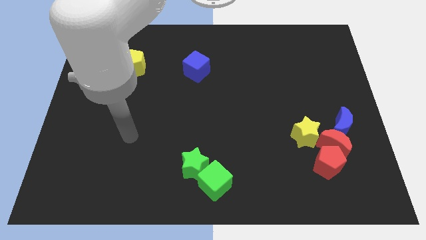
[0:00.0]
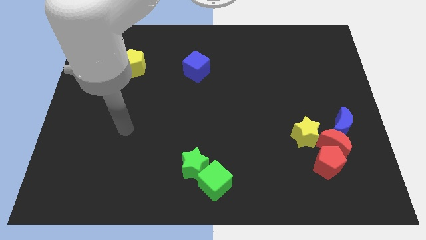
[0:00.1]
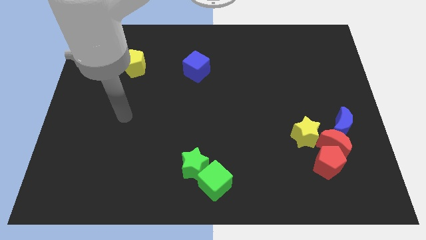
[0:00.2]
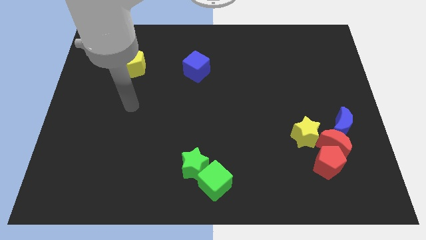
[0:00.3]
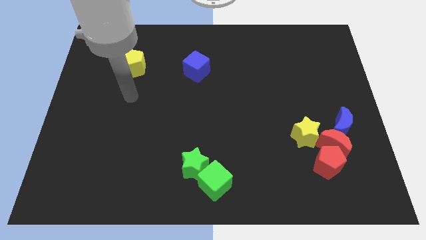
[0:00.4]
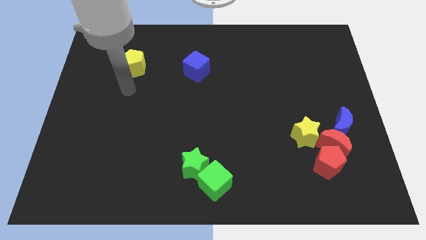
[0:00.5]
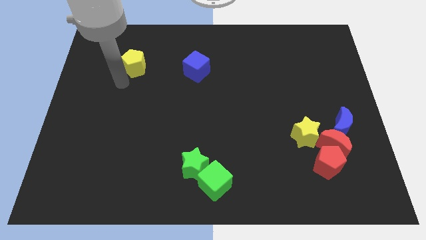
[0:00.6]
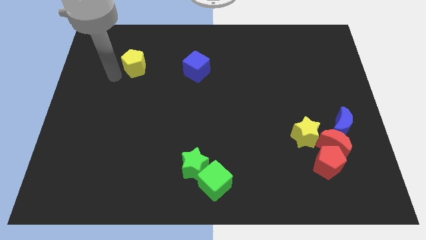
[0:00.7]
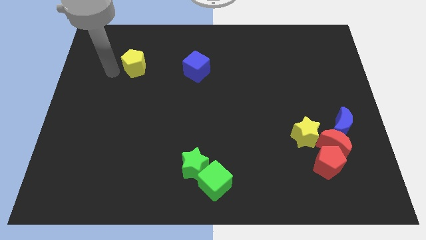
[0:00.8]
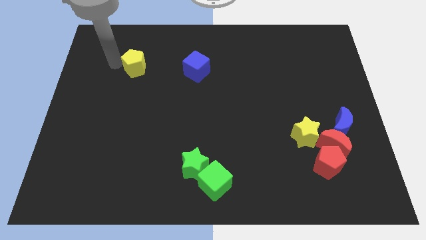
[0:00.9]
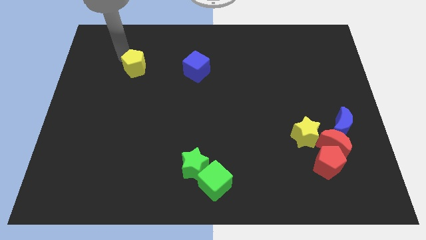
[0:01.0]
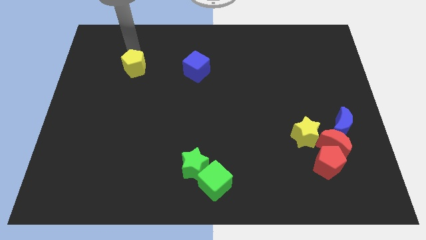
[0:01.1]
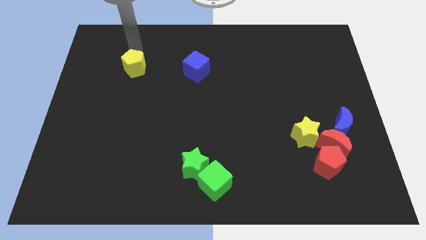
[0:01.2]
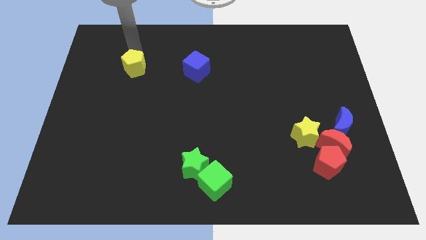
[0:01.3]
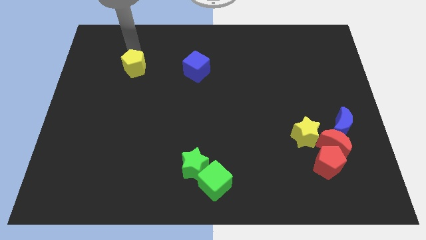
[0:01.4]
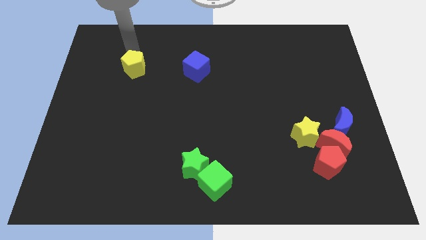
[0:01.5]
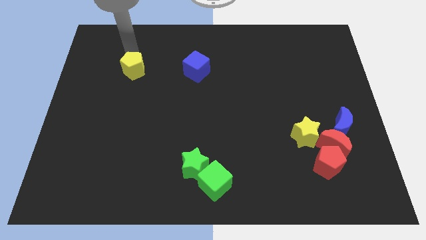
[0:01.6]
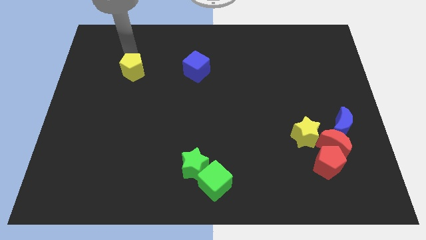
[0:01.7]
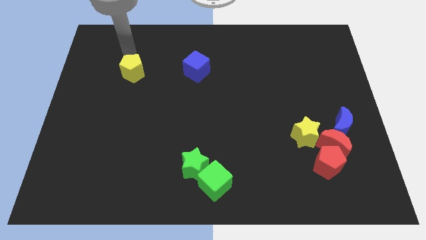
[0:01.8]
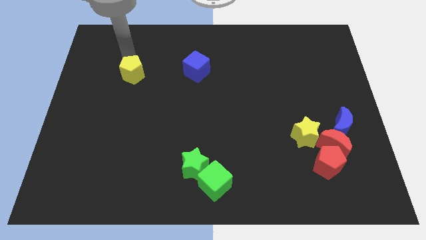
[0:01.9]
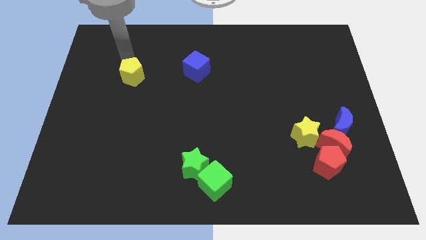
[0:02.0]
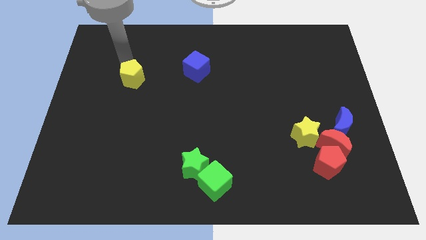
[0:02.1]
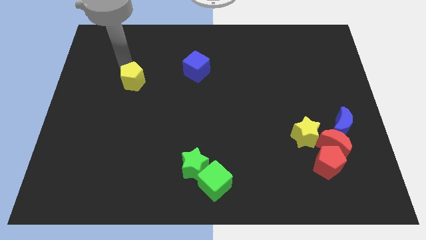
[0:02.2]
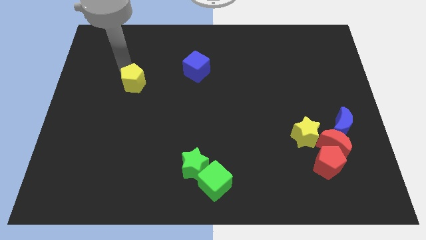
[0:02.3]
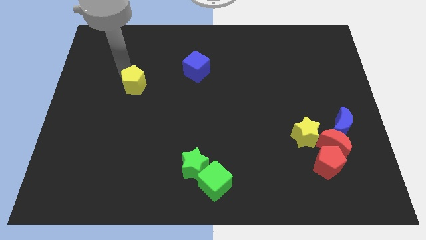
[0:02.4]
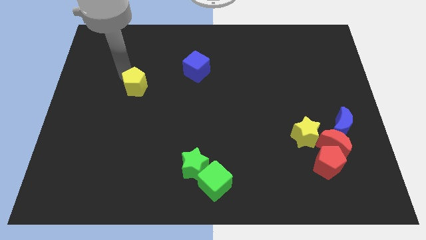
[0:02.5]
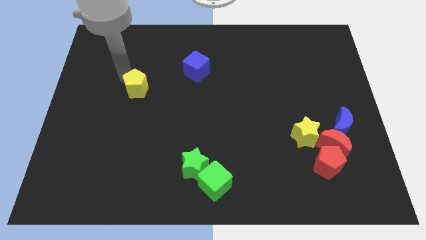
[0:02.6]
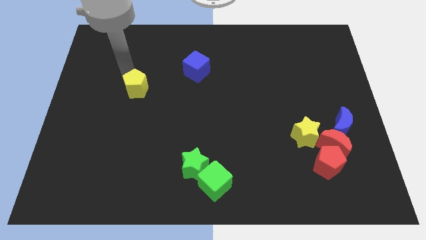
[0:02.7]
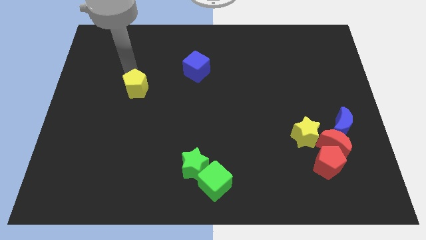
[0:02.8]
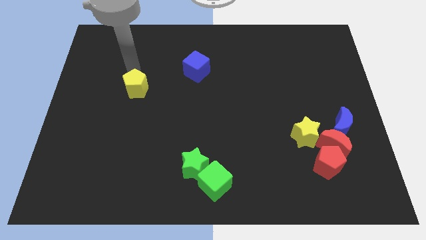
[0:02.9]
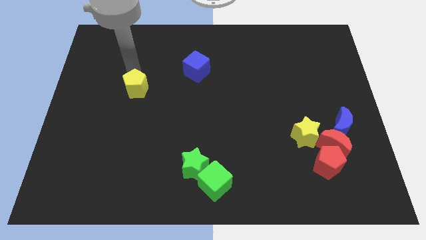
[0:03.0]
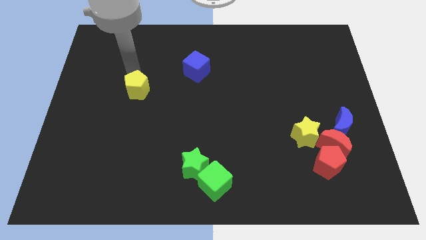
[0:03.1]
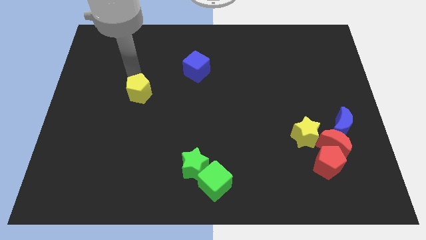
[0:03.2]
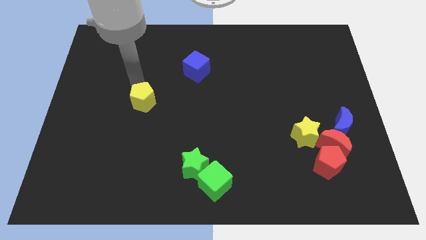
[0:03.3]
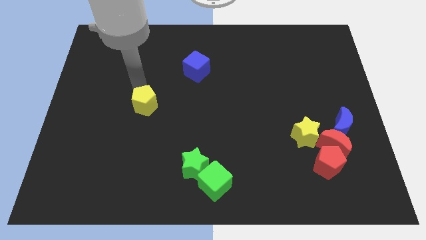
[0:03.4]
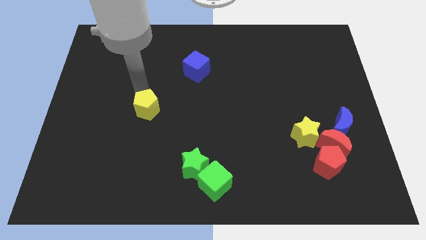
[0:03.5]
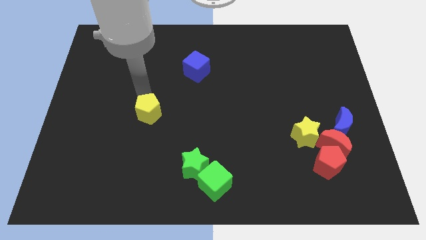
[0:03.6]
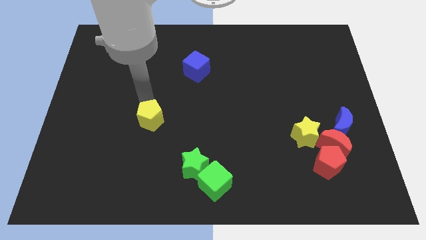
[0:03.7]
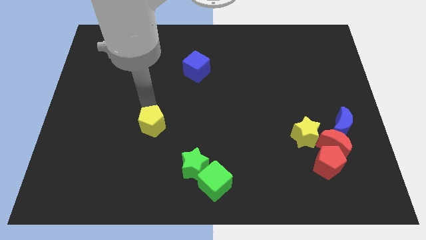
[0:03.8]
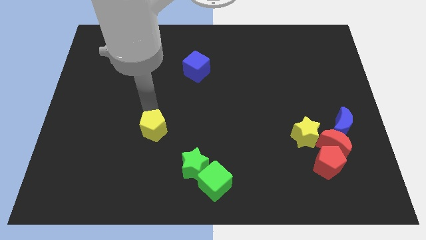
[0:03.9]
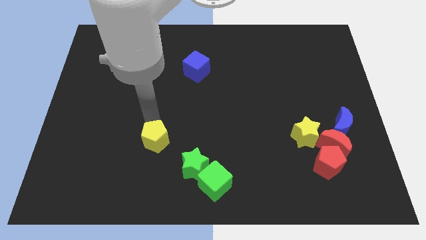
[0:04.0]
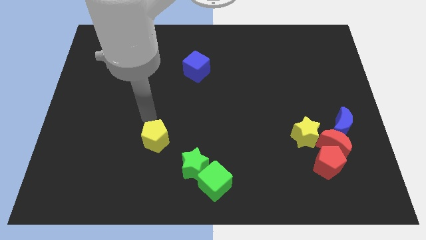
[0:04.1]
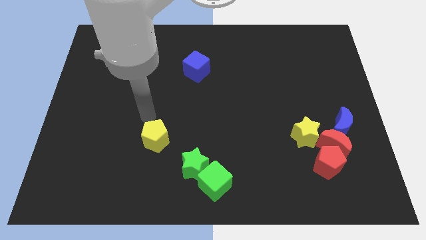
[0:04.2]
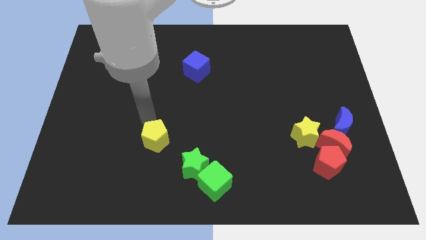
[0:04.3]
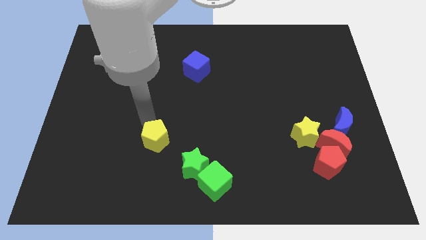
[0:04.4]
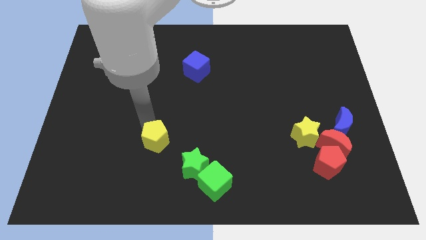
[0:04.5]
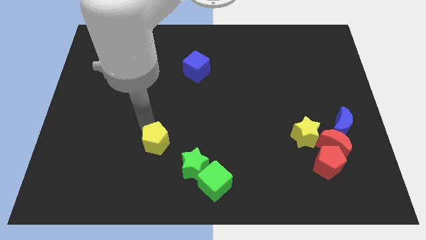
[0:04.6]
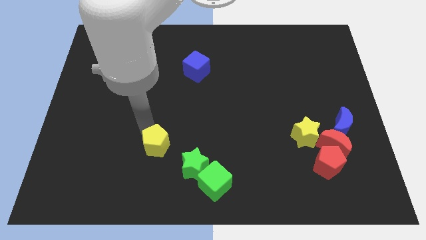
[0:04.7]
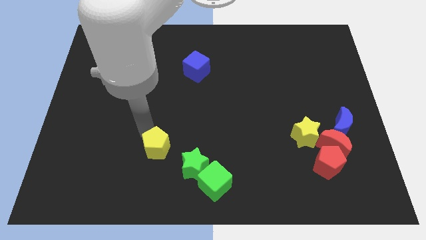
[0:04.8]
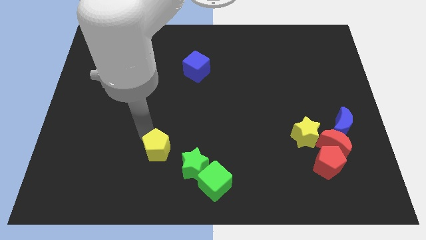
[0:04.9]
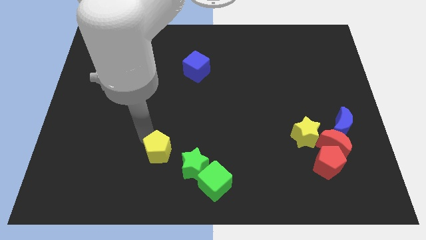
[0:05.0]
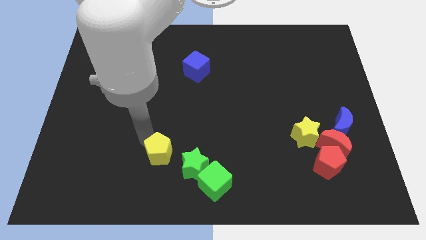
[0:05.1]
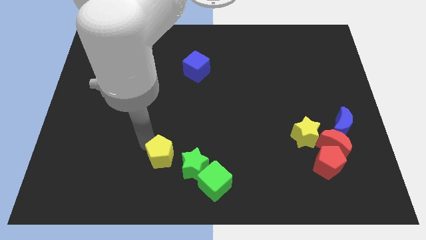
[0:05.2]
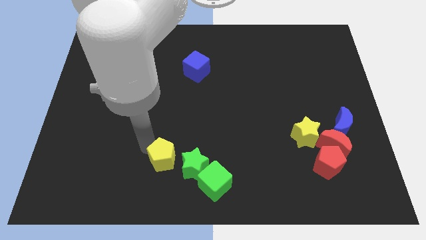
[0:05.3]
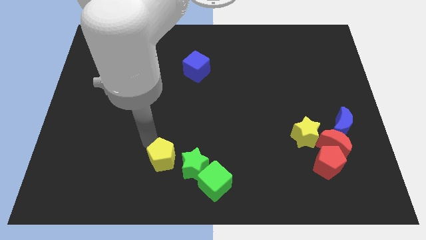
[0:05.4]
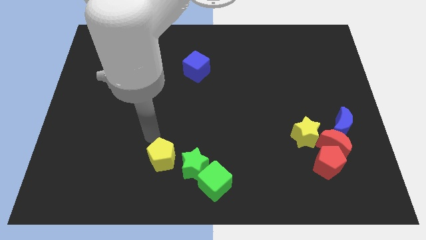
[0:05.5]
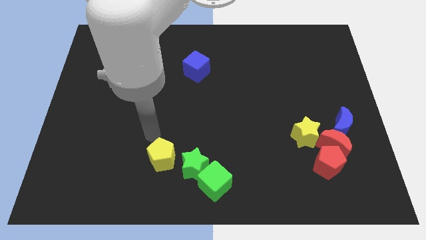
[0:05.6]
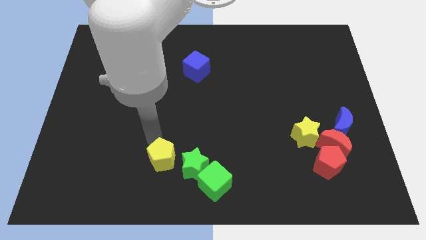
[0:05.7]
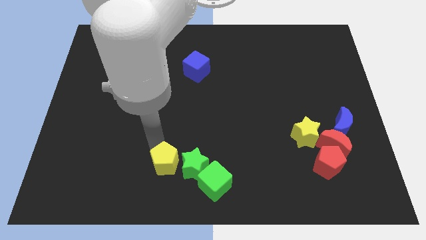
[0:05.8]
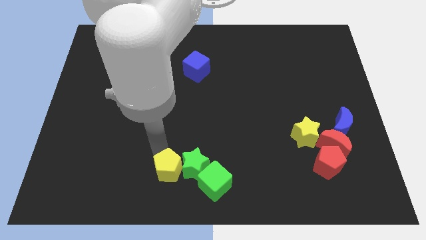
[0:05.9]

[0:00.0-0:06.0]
slide the yellow pentagon to the bottom
